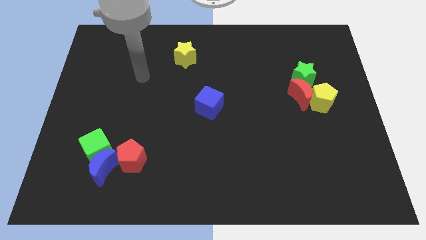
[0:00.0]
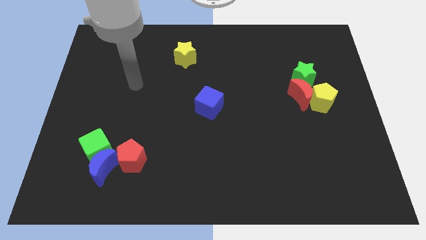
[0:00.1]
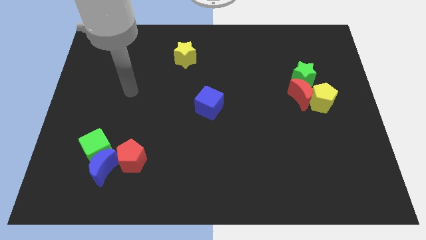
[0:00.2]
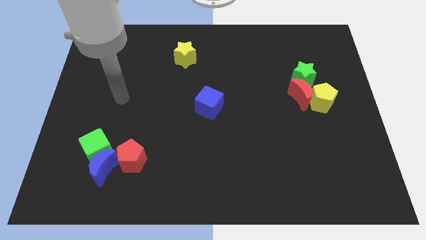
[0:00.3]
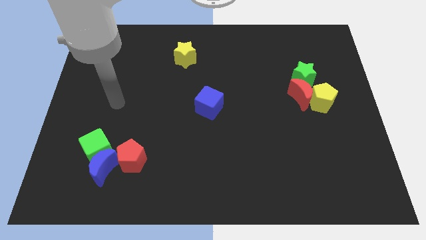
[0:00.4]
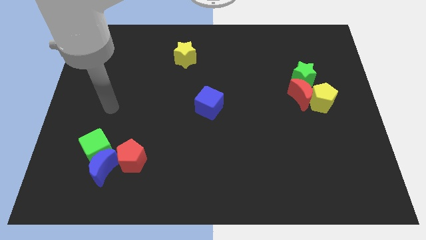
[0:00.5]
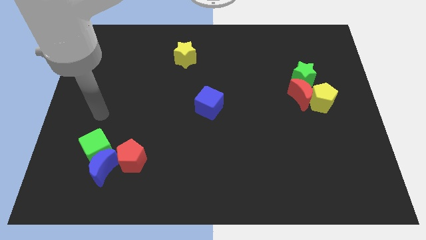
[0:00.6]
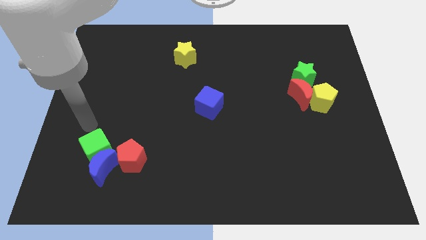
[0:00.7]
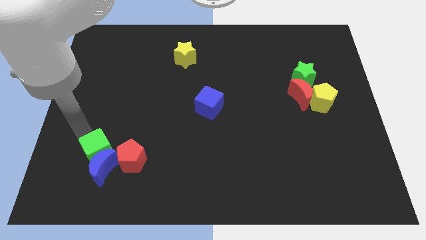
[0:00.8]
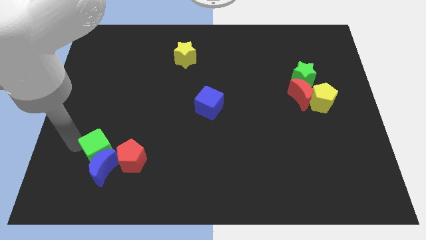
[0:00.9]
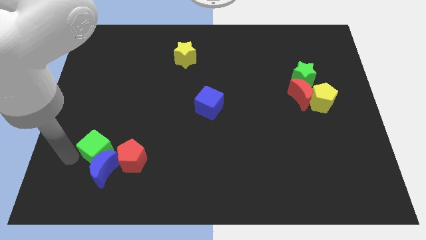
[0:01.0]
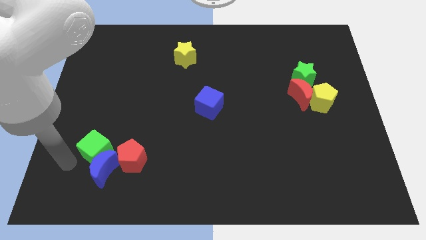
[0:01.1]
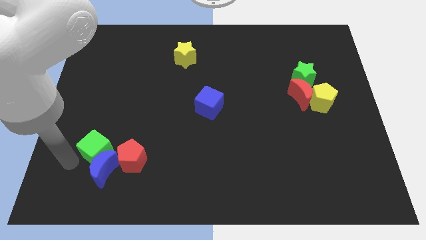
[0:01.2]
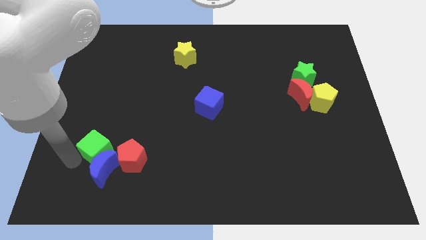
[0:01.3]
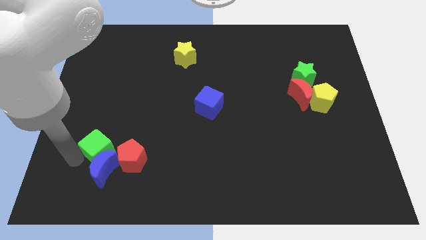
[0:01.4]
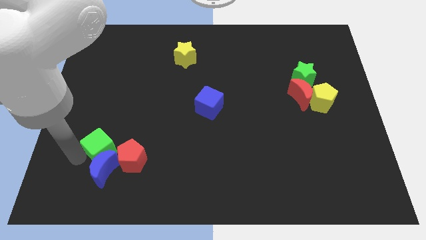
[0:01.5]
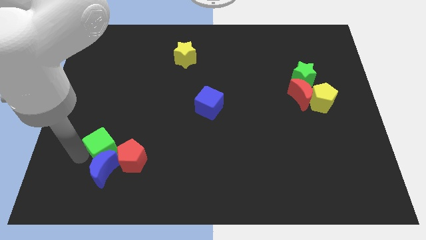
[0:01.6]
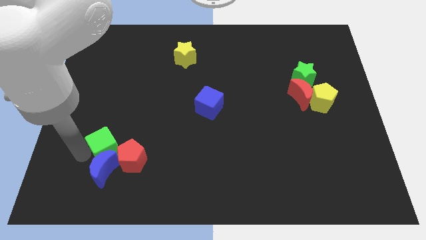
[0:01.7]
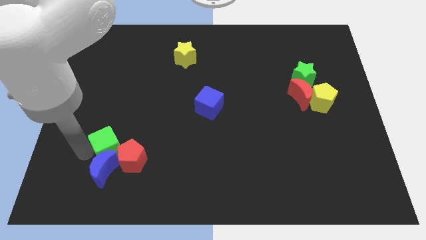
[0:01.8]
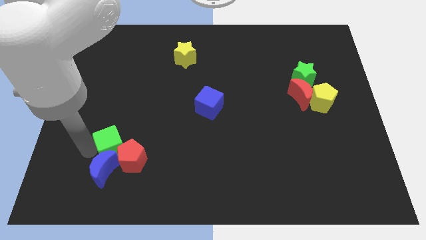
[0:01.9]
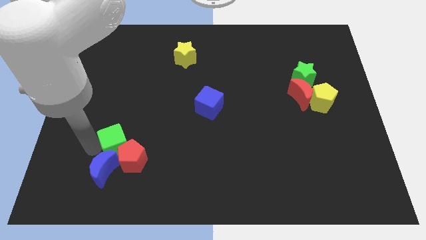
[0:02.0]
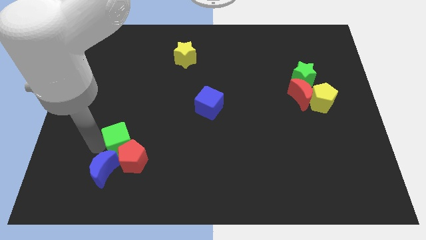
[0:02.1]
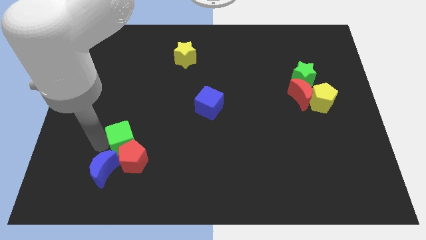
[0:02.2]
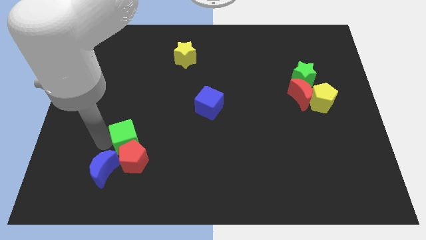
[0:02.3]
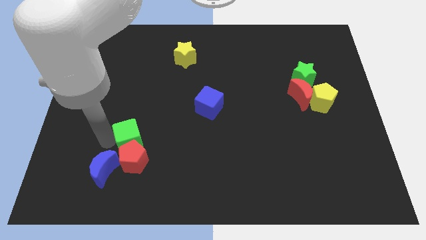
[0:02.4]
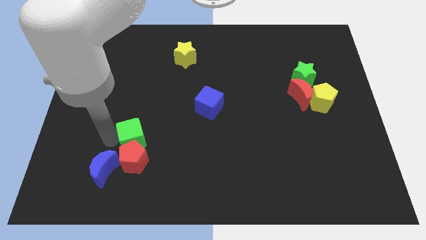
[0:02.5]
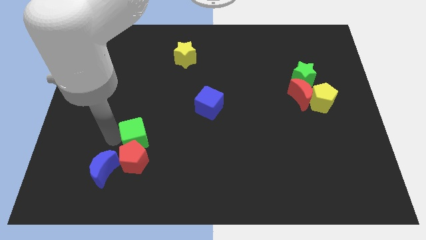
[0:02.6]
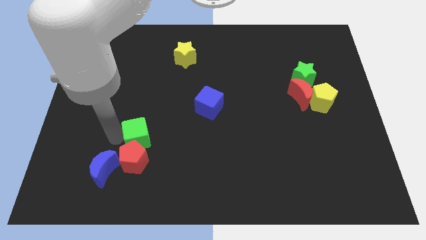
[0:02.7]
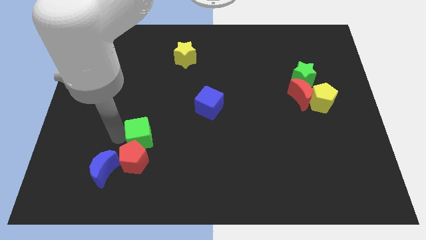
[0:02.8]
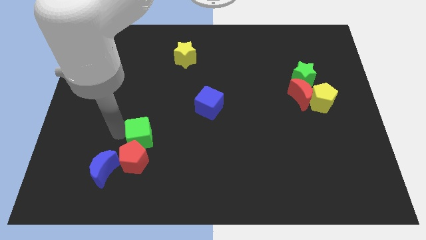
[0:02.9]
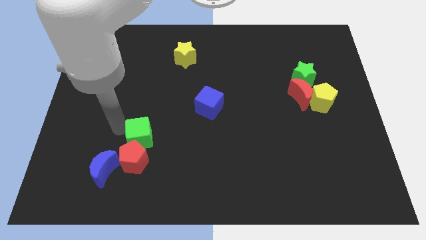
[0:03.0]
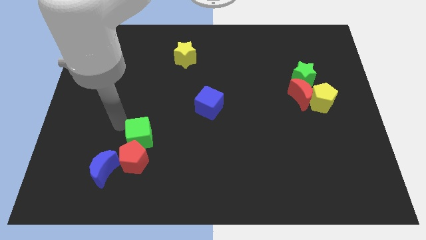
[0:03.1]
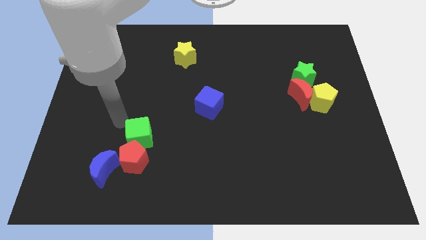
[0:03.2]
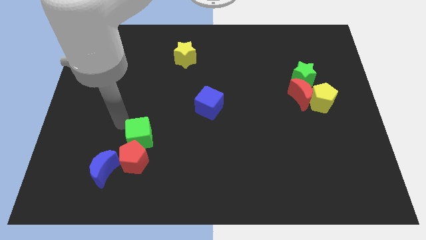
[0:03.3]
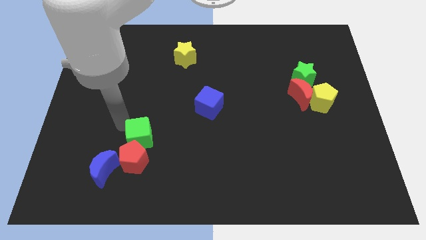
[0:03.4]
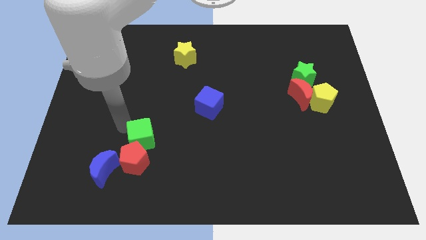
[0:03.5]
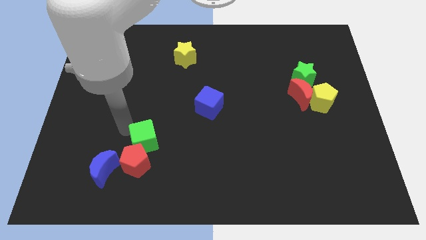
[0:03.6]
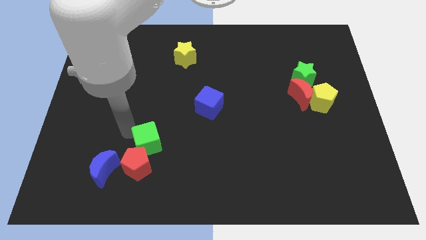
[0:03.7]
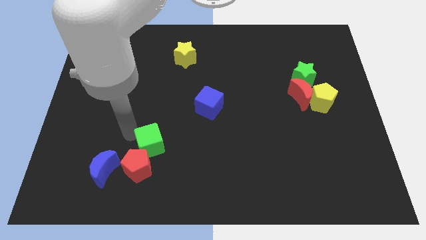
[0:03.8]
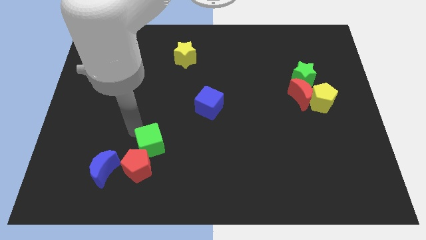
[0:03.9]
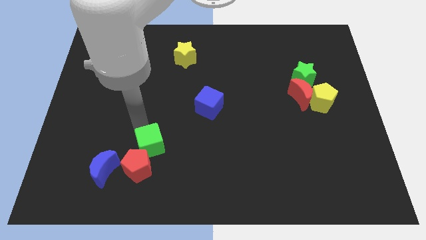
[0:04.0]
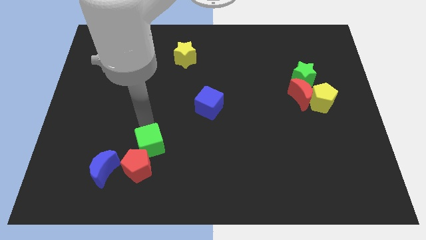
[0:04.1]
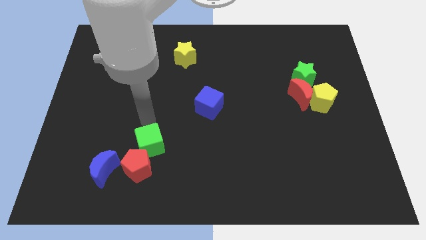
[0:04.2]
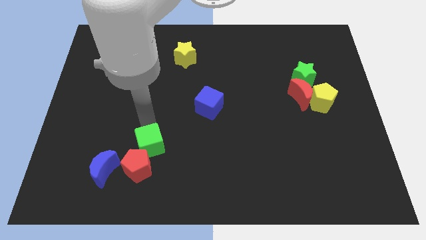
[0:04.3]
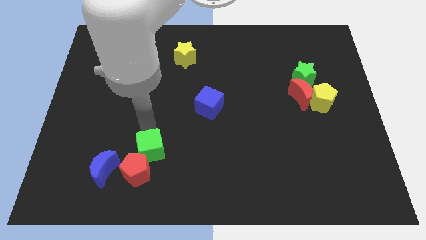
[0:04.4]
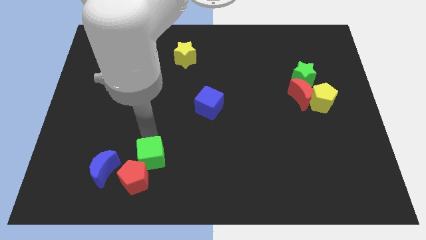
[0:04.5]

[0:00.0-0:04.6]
put the green cube right of the blue moon

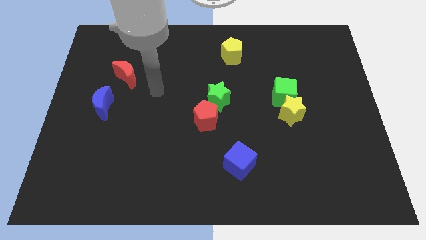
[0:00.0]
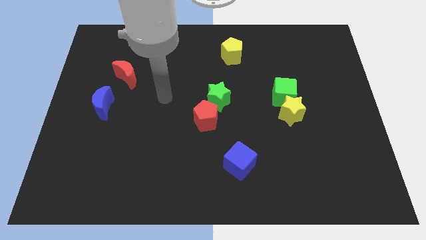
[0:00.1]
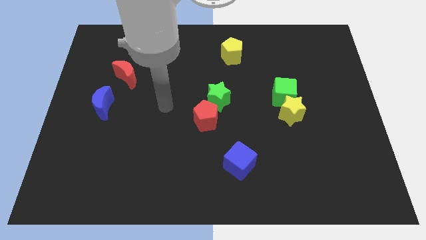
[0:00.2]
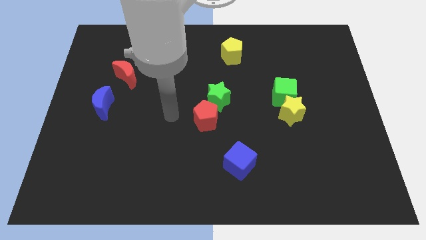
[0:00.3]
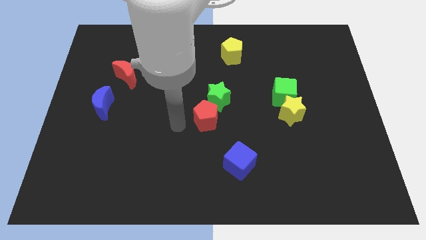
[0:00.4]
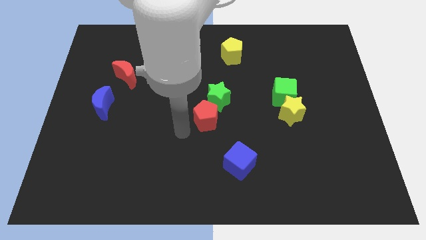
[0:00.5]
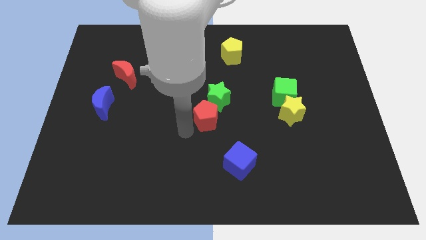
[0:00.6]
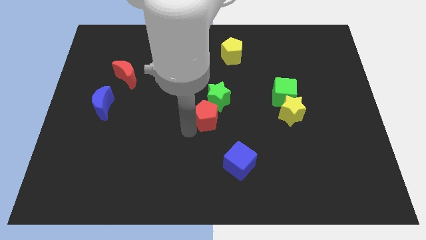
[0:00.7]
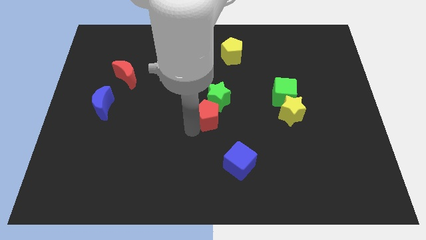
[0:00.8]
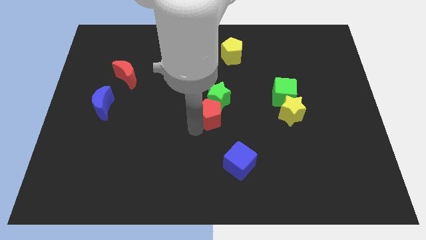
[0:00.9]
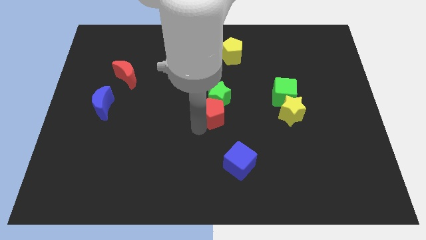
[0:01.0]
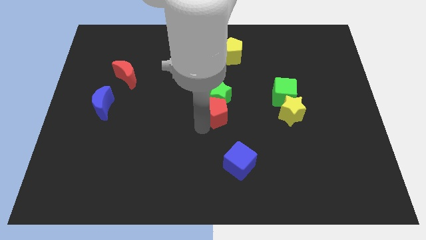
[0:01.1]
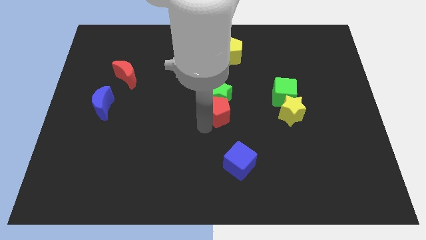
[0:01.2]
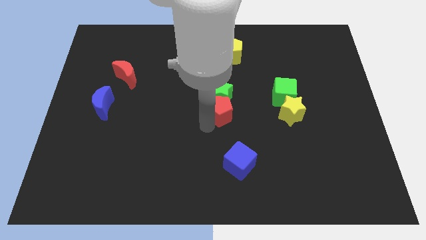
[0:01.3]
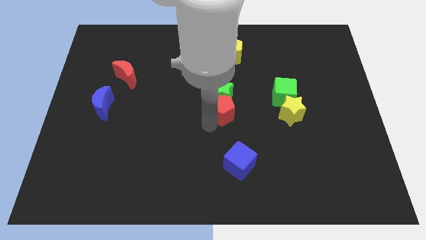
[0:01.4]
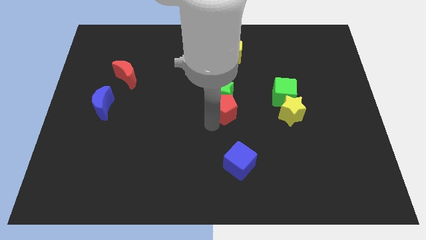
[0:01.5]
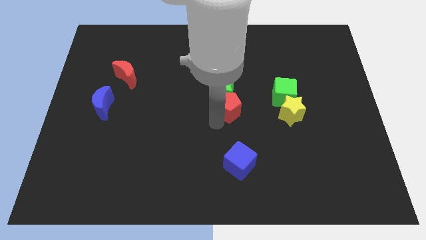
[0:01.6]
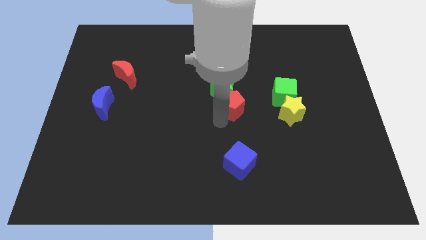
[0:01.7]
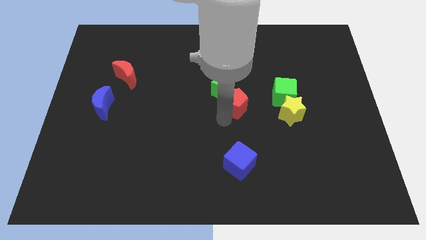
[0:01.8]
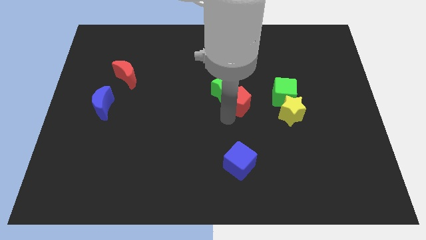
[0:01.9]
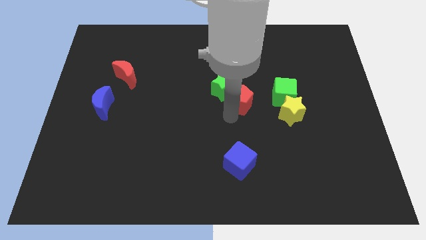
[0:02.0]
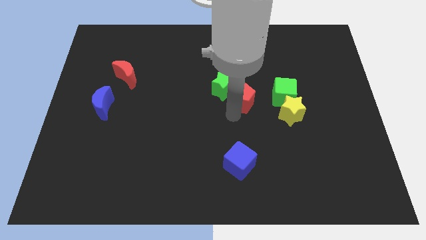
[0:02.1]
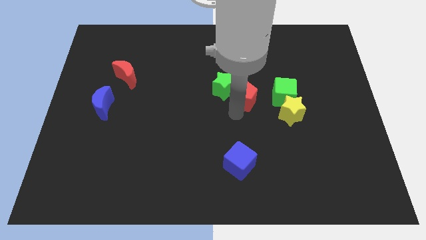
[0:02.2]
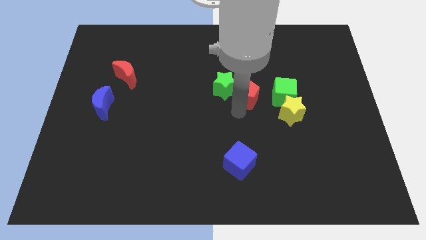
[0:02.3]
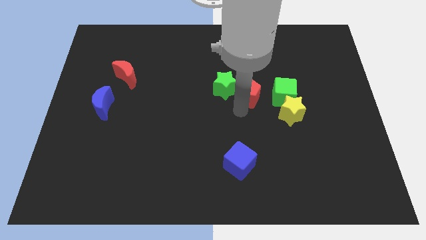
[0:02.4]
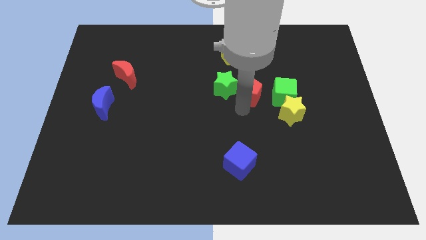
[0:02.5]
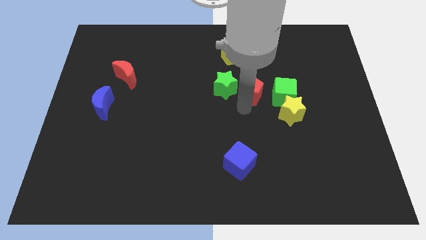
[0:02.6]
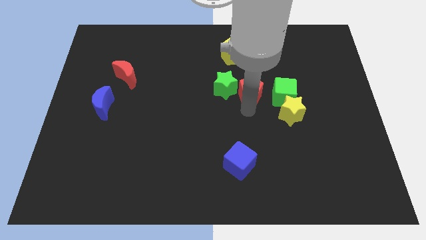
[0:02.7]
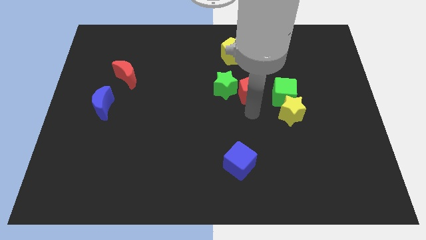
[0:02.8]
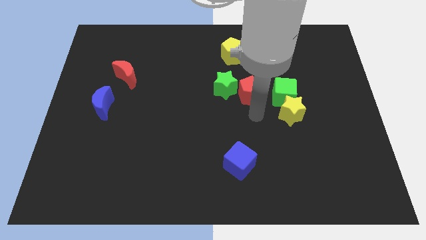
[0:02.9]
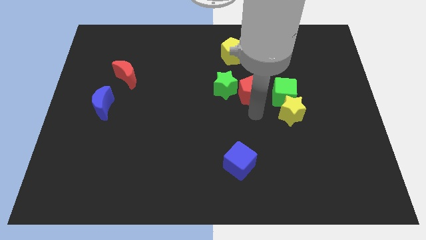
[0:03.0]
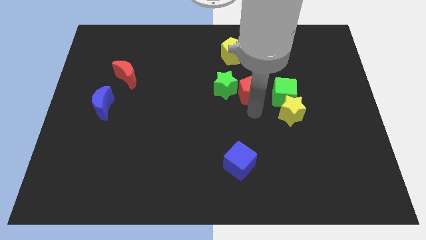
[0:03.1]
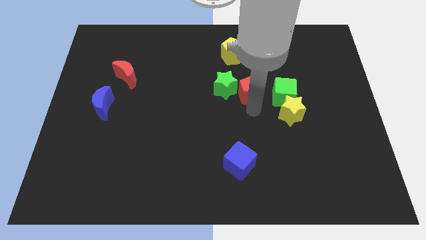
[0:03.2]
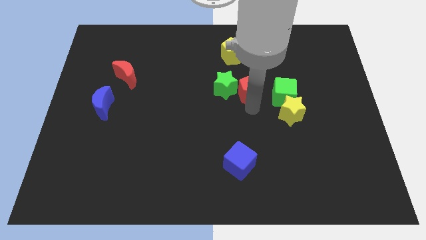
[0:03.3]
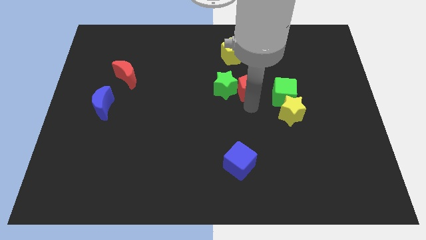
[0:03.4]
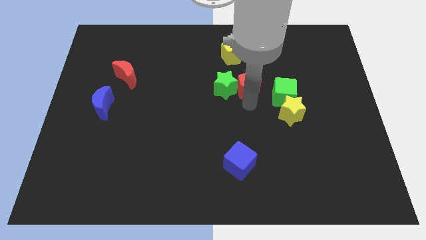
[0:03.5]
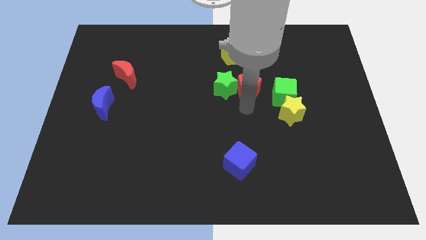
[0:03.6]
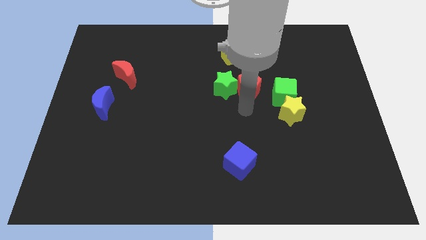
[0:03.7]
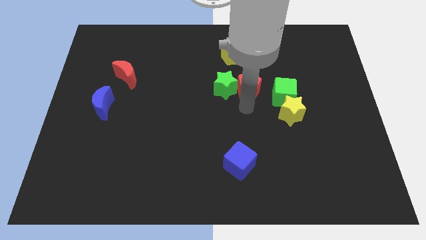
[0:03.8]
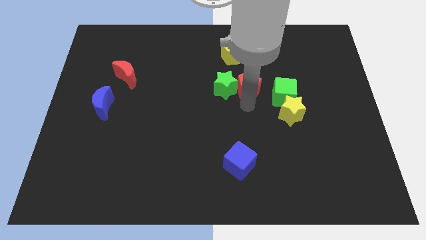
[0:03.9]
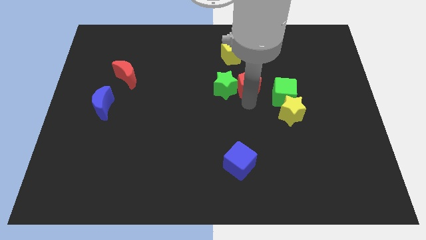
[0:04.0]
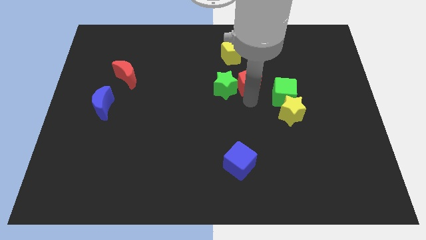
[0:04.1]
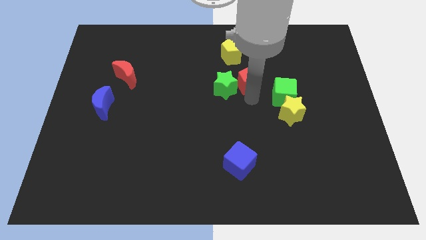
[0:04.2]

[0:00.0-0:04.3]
push the red pentagon diagonally down and to the right of the yellow pentagon
